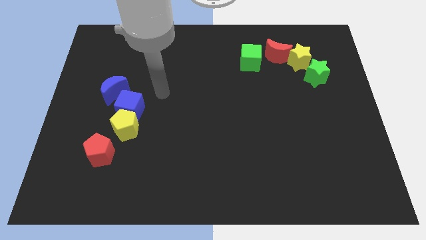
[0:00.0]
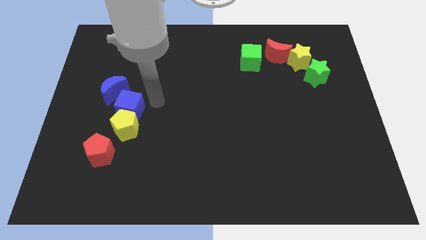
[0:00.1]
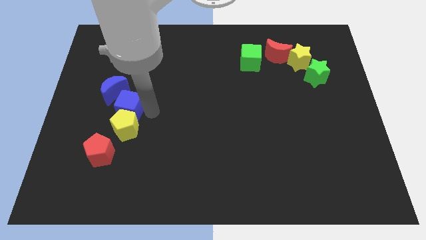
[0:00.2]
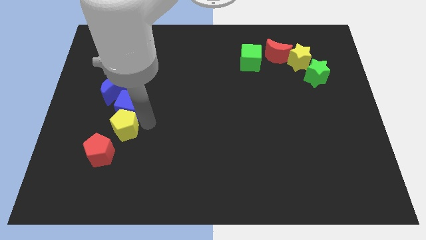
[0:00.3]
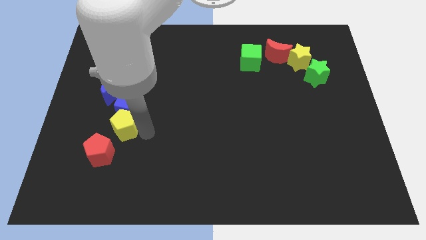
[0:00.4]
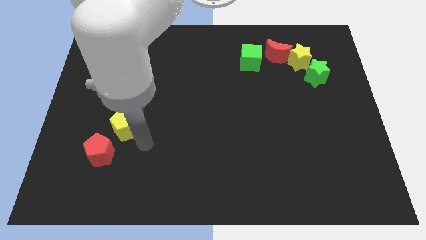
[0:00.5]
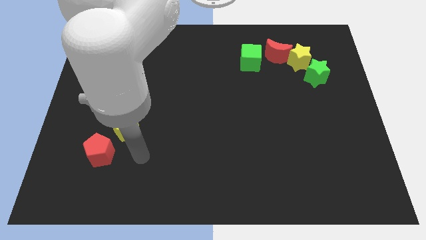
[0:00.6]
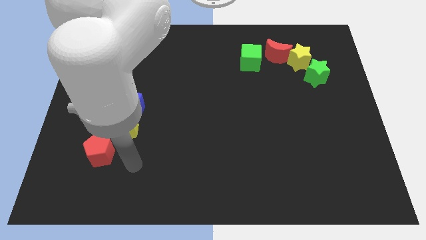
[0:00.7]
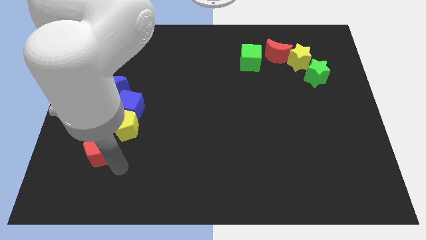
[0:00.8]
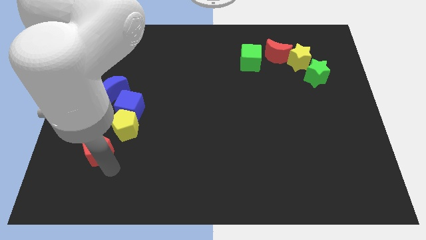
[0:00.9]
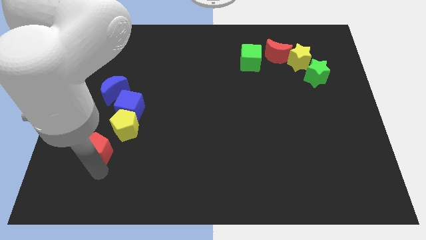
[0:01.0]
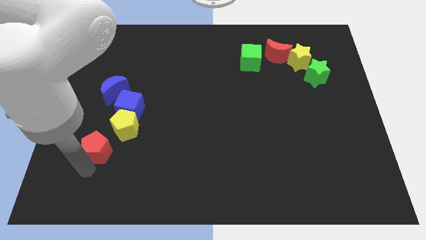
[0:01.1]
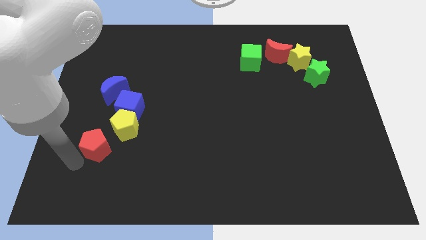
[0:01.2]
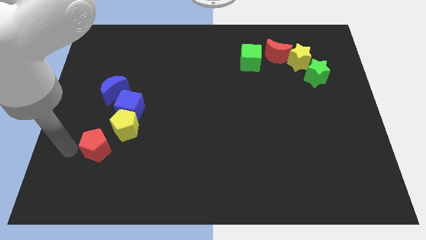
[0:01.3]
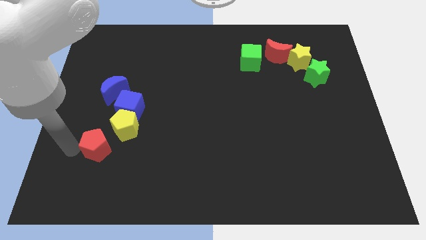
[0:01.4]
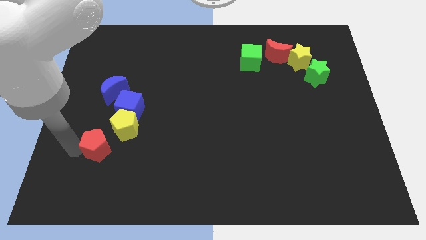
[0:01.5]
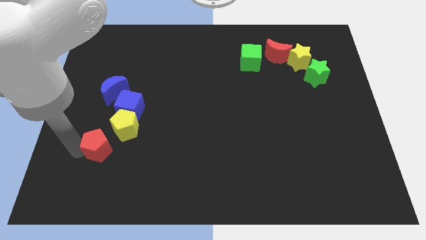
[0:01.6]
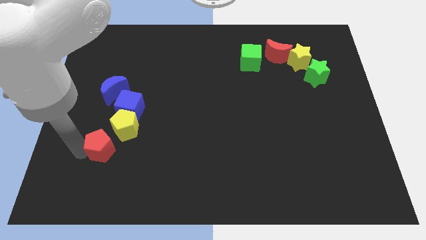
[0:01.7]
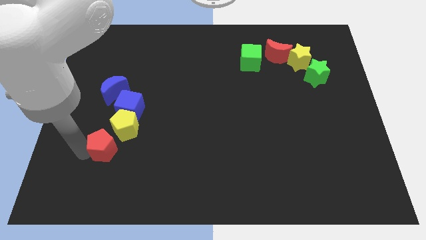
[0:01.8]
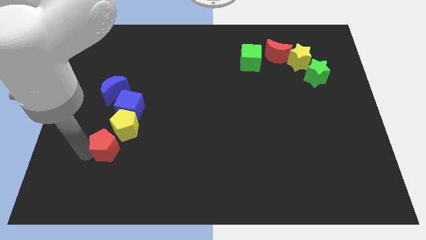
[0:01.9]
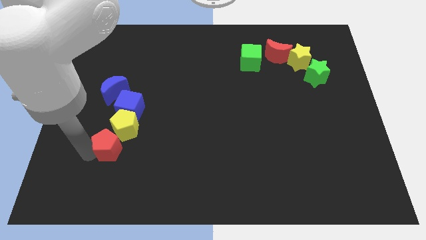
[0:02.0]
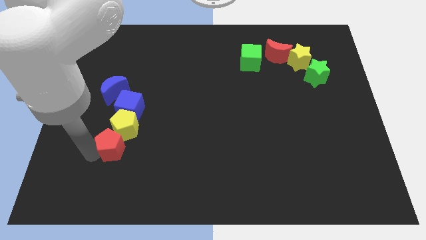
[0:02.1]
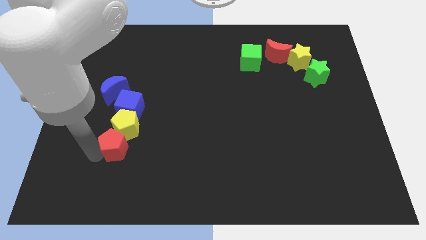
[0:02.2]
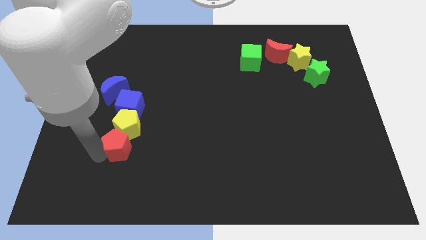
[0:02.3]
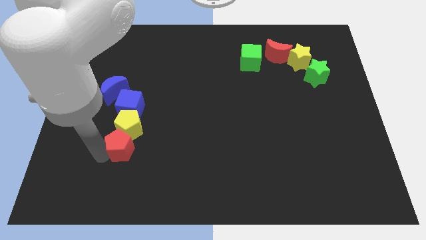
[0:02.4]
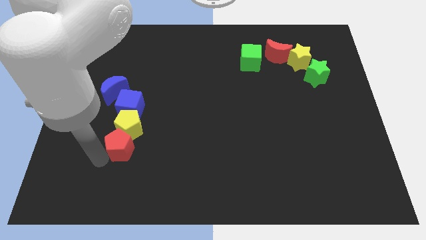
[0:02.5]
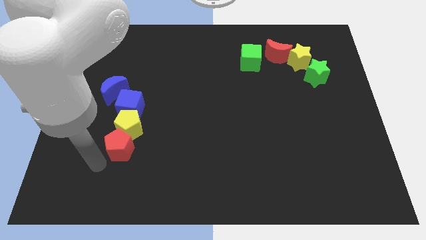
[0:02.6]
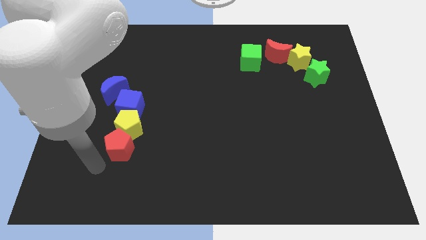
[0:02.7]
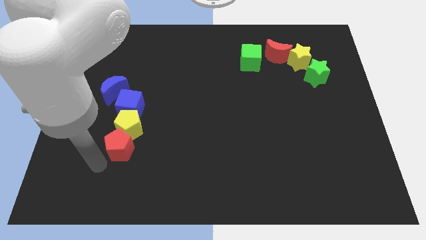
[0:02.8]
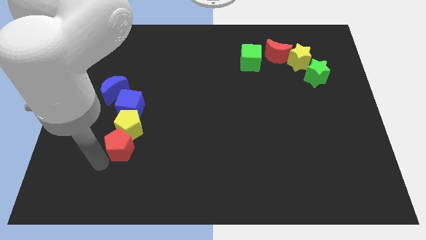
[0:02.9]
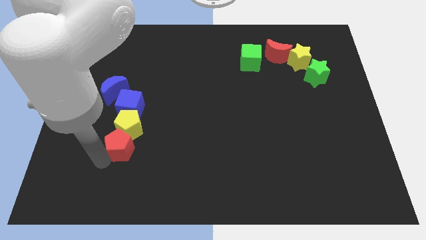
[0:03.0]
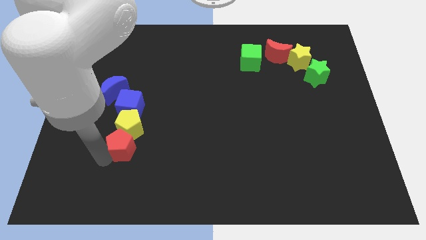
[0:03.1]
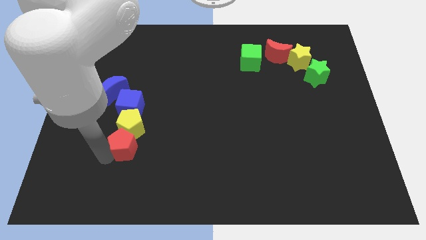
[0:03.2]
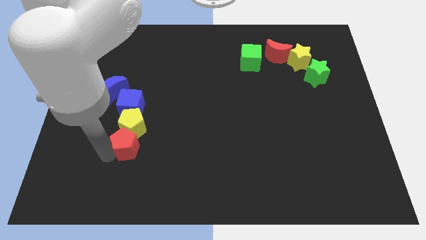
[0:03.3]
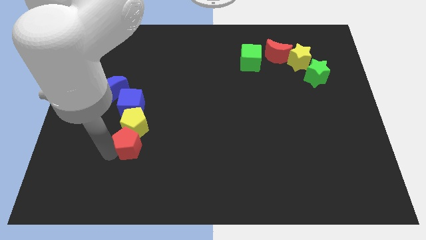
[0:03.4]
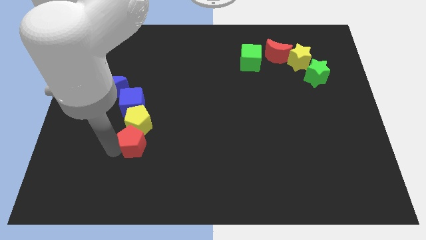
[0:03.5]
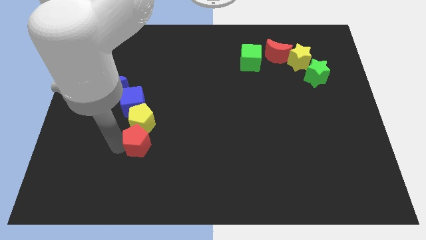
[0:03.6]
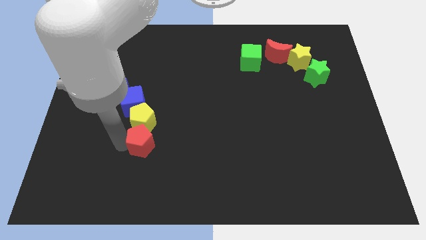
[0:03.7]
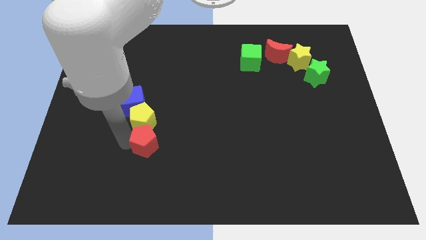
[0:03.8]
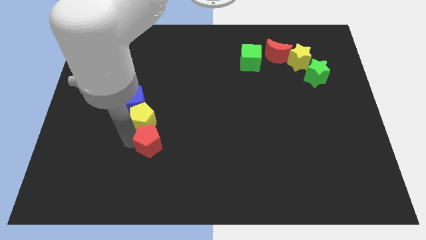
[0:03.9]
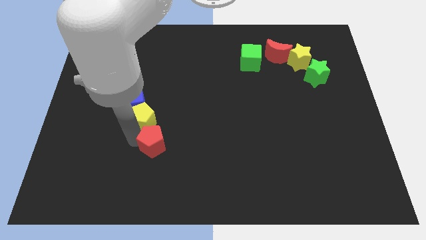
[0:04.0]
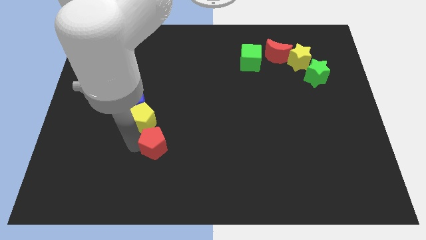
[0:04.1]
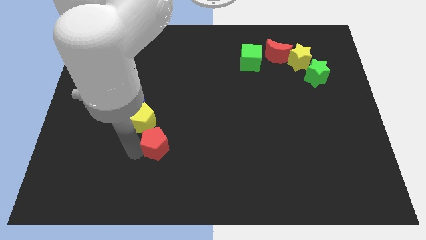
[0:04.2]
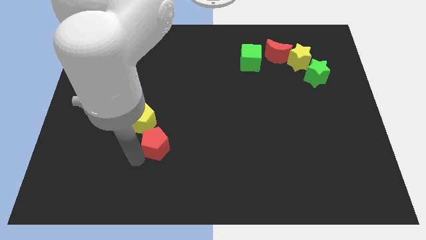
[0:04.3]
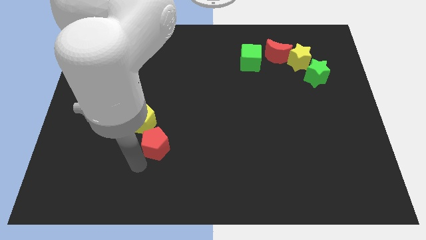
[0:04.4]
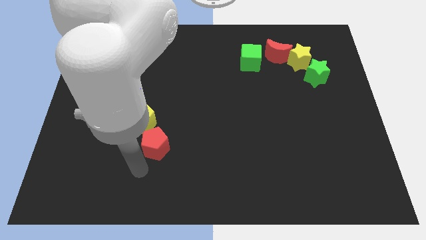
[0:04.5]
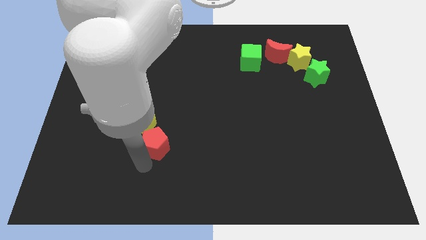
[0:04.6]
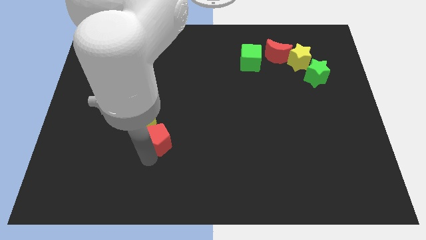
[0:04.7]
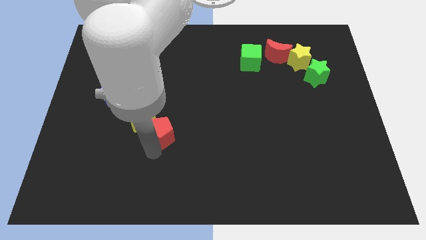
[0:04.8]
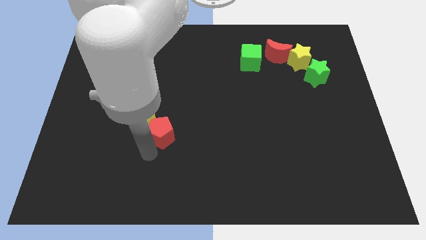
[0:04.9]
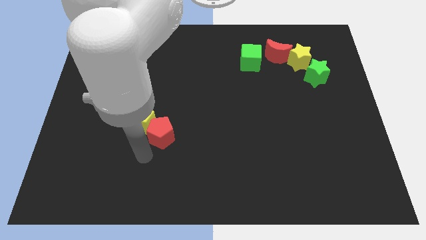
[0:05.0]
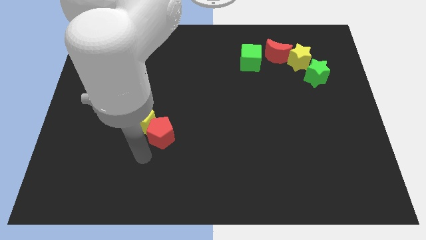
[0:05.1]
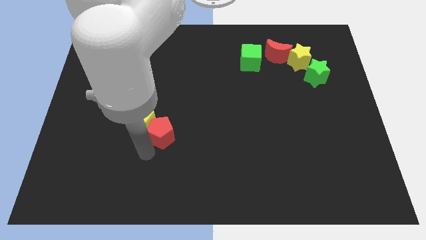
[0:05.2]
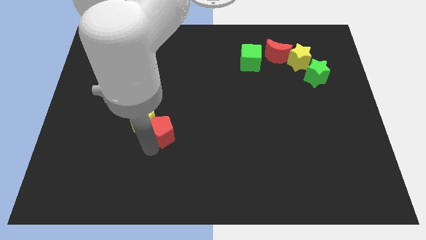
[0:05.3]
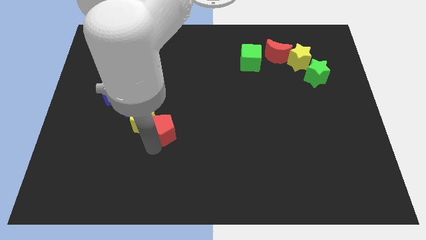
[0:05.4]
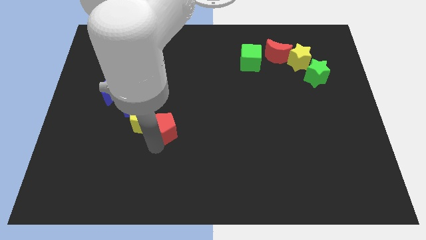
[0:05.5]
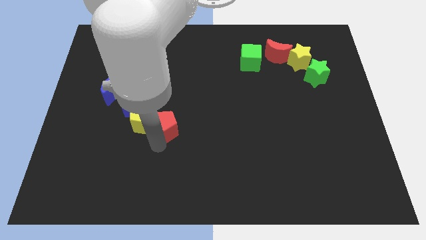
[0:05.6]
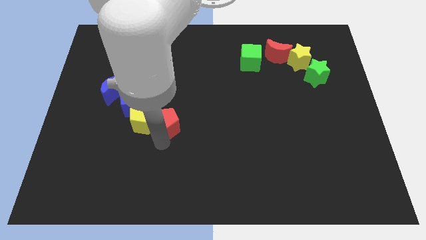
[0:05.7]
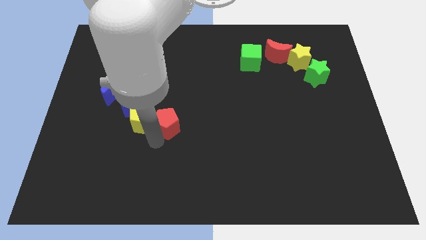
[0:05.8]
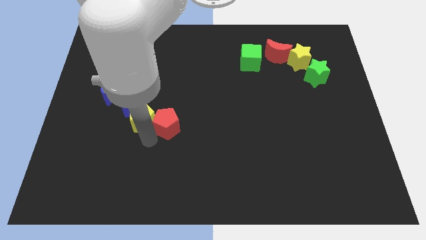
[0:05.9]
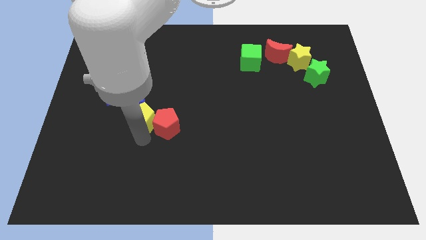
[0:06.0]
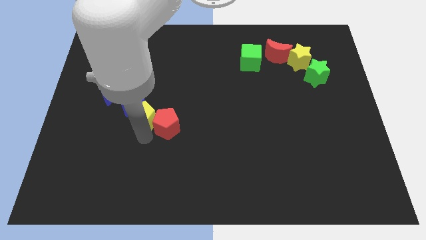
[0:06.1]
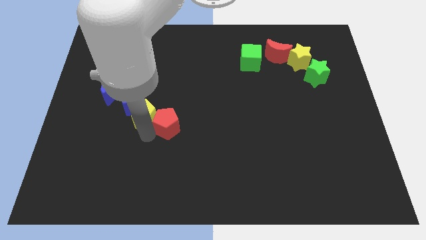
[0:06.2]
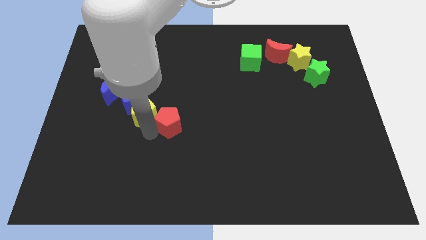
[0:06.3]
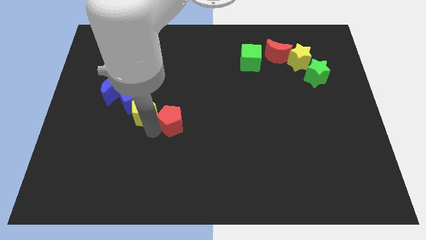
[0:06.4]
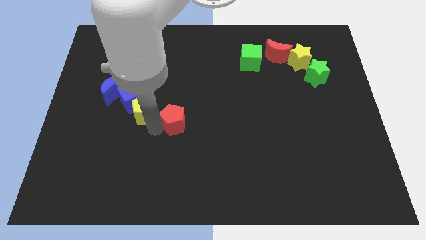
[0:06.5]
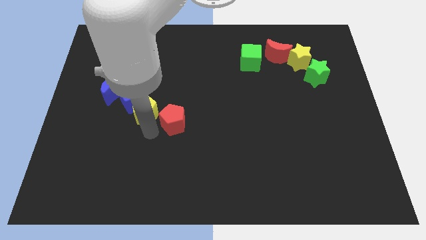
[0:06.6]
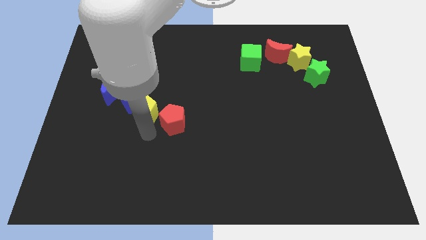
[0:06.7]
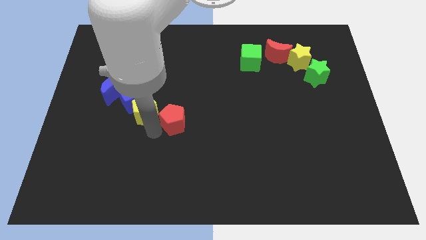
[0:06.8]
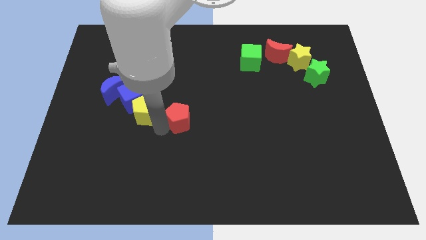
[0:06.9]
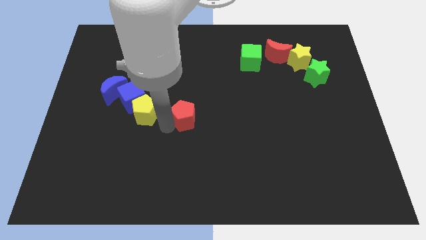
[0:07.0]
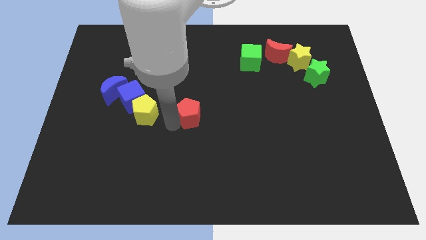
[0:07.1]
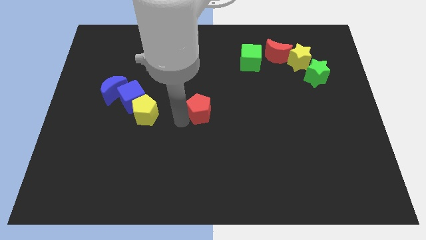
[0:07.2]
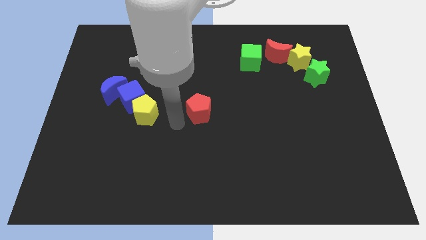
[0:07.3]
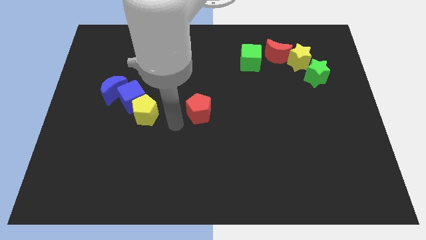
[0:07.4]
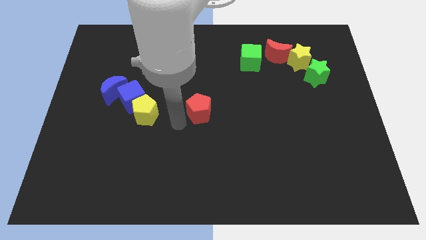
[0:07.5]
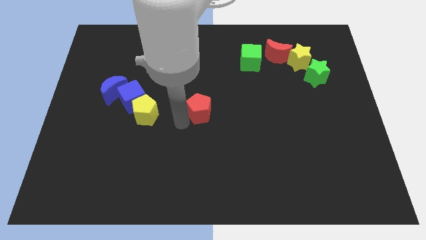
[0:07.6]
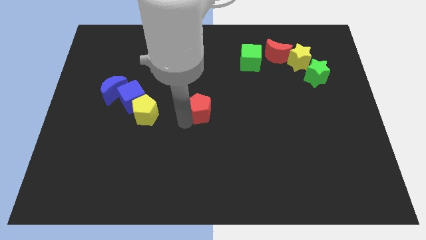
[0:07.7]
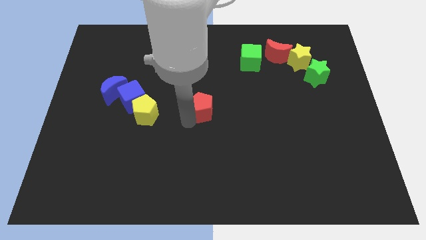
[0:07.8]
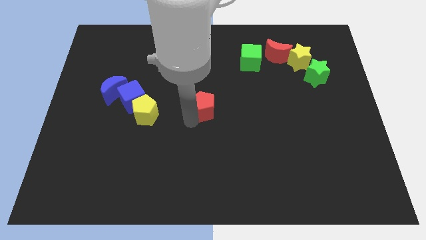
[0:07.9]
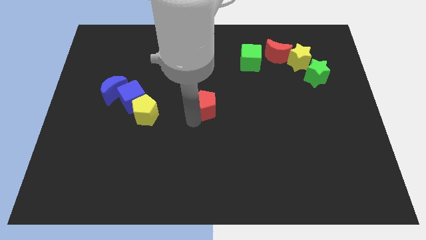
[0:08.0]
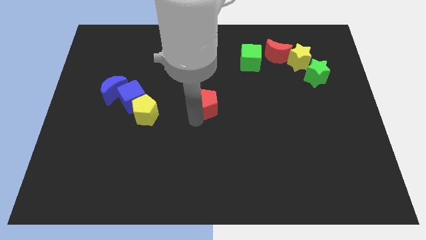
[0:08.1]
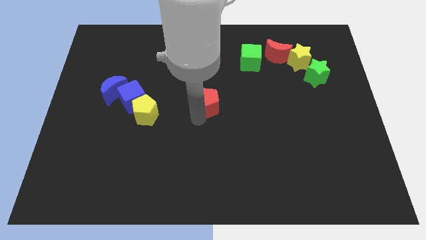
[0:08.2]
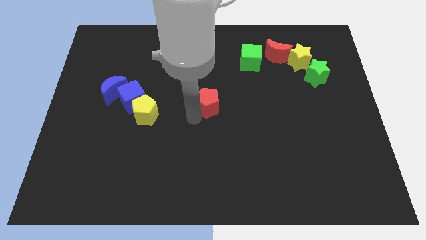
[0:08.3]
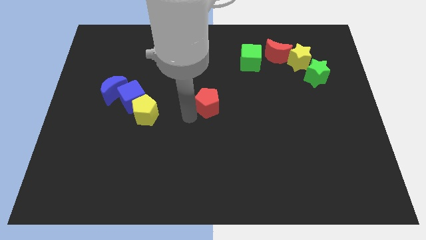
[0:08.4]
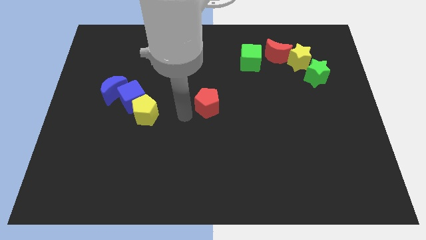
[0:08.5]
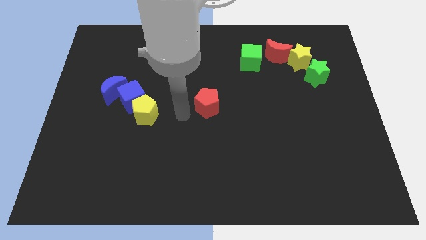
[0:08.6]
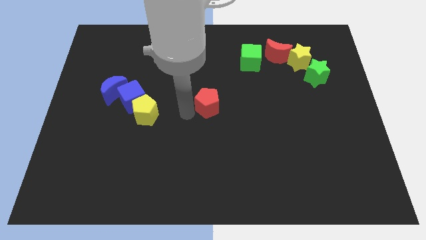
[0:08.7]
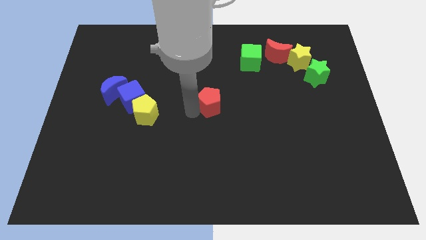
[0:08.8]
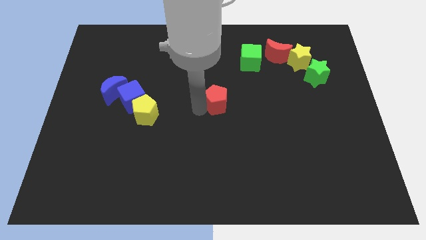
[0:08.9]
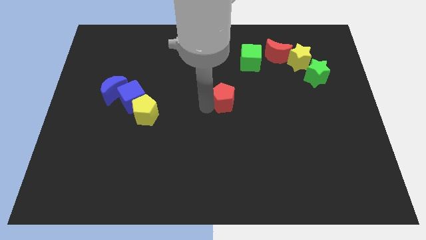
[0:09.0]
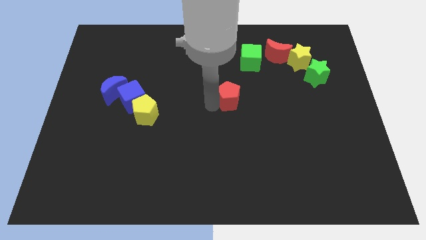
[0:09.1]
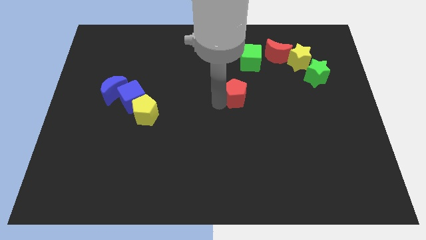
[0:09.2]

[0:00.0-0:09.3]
put the red pentagon below the green cube
